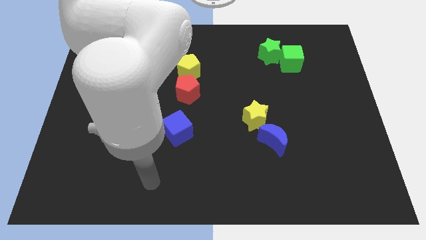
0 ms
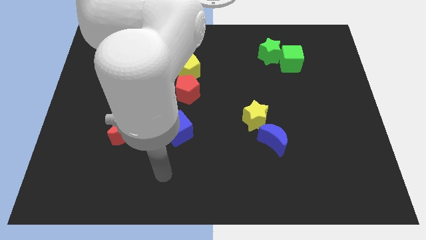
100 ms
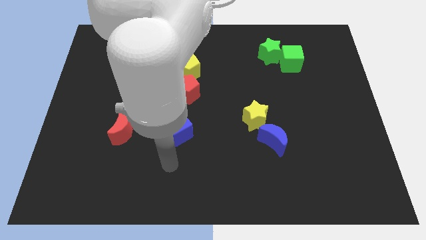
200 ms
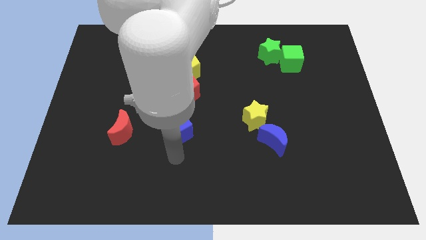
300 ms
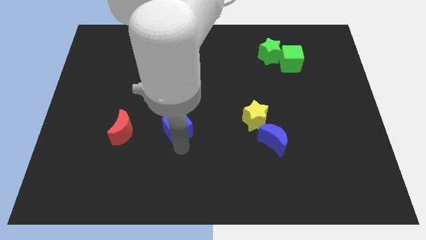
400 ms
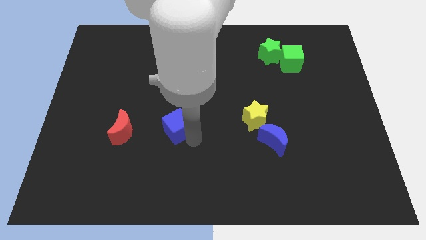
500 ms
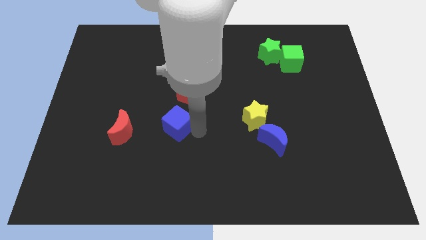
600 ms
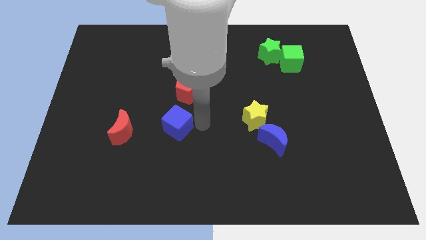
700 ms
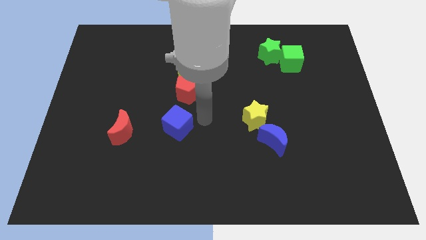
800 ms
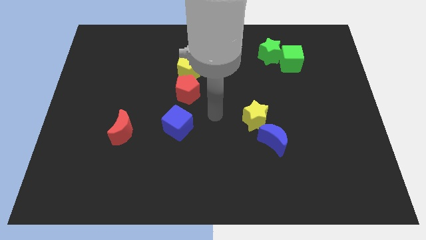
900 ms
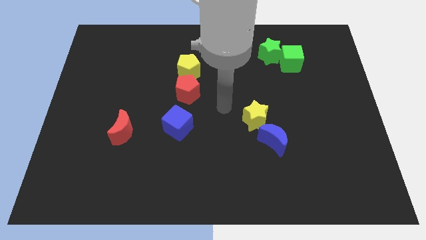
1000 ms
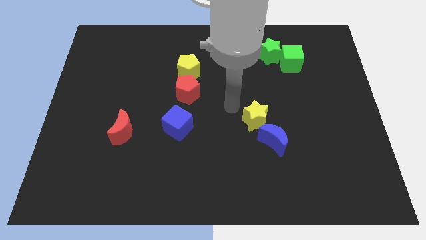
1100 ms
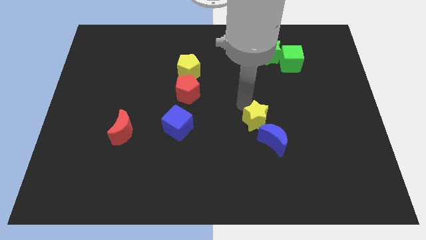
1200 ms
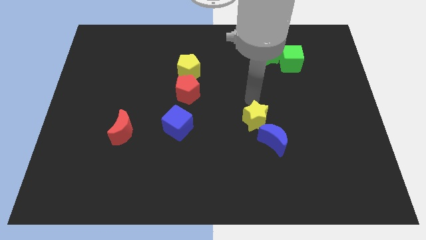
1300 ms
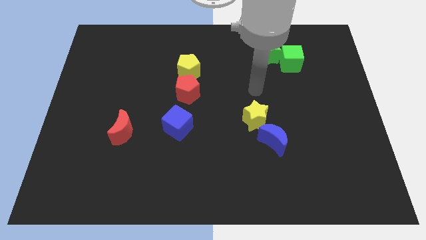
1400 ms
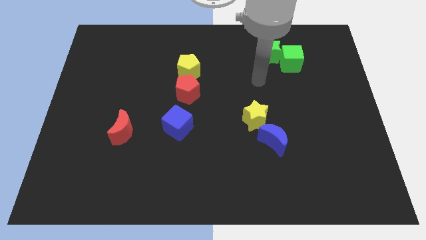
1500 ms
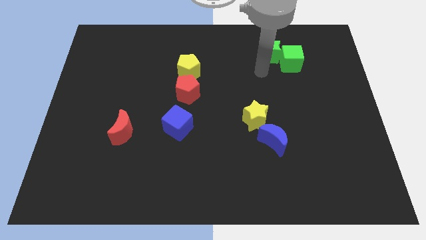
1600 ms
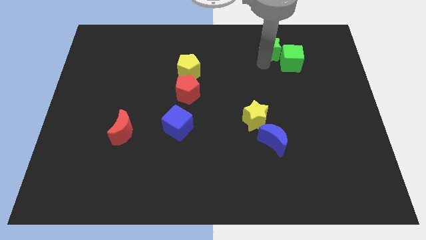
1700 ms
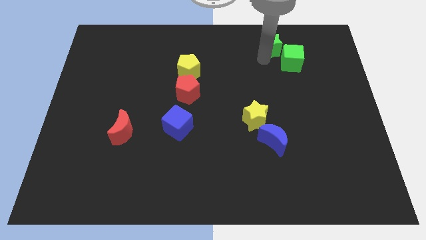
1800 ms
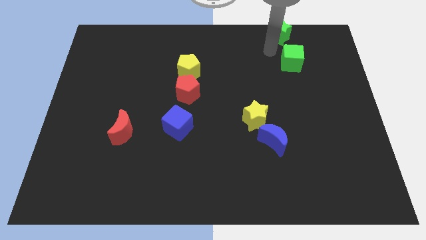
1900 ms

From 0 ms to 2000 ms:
separate the green cube from the green star

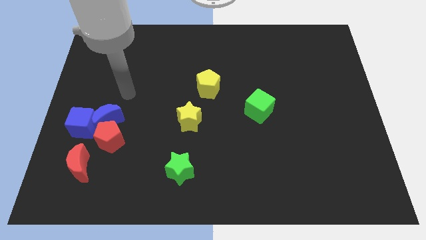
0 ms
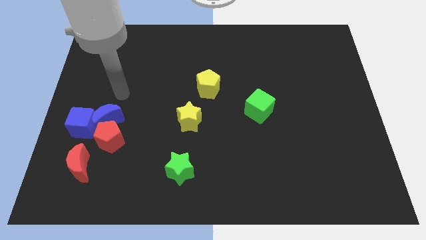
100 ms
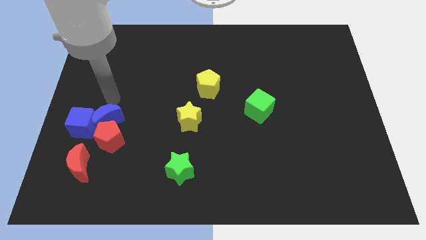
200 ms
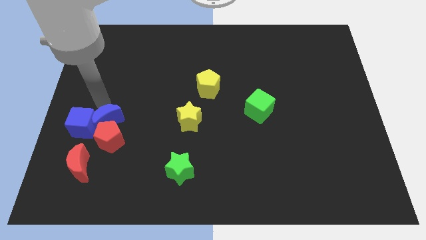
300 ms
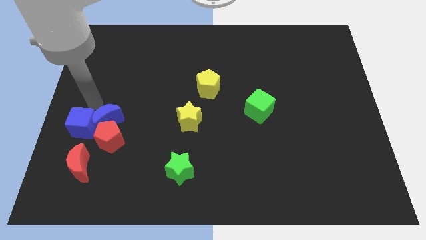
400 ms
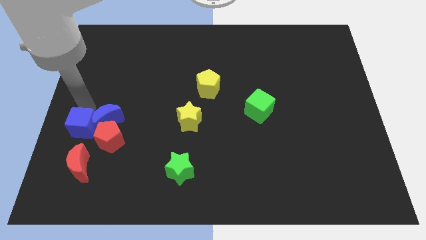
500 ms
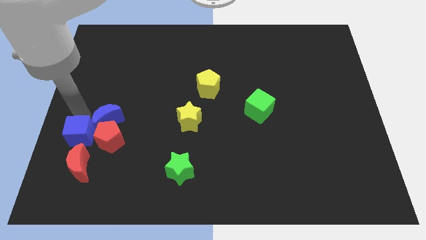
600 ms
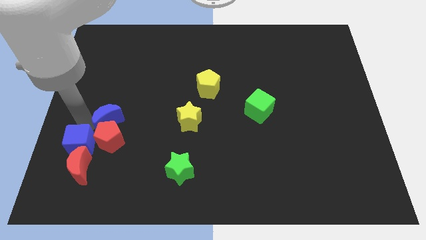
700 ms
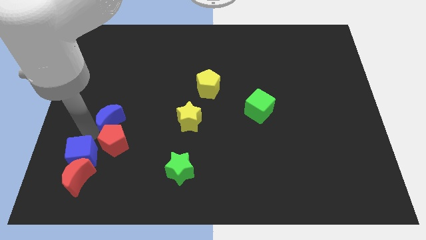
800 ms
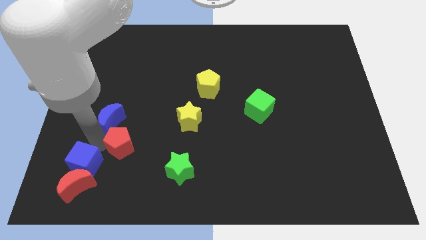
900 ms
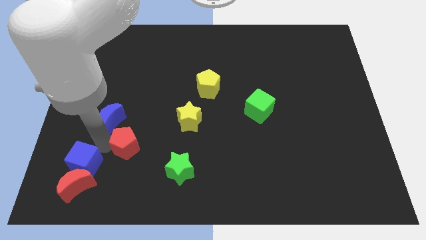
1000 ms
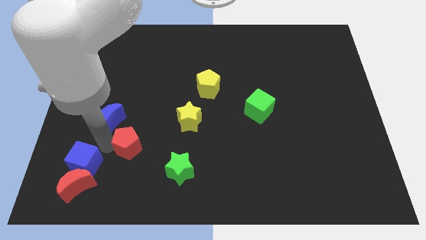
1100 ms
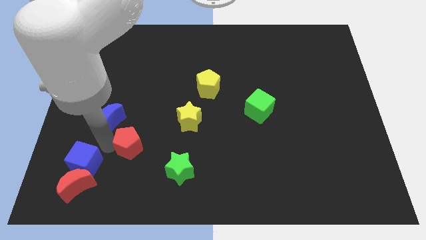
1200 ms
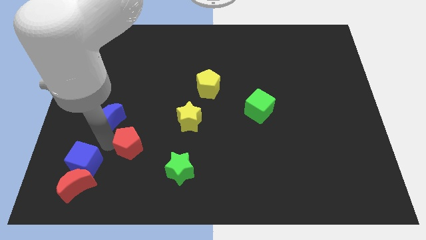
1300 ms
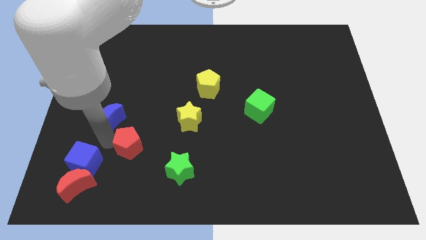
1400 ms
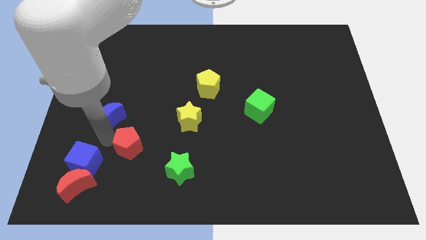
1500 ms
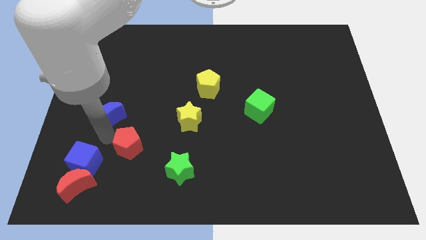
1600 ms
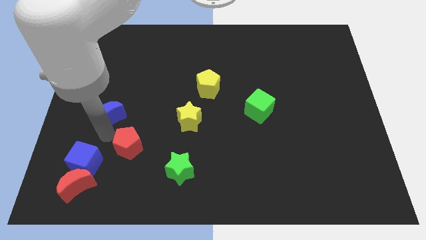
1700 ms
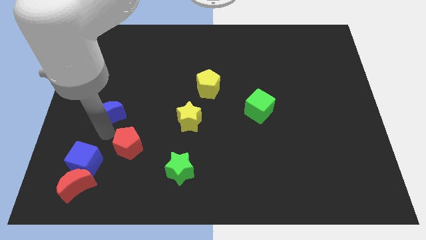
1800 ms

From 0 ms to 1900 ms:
separate the blue moon from the blue cube and red pentagon

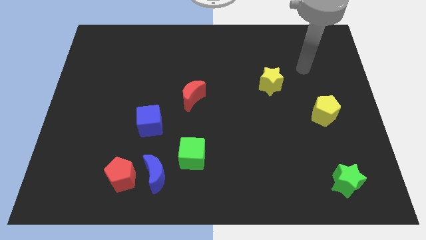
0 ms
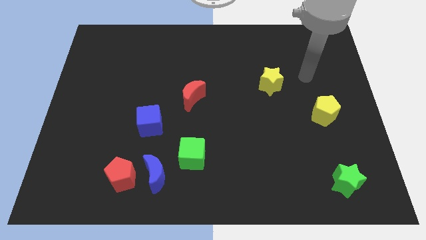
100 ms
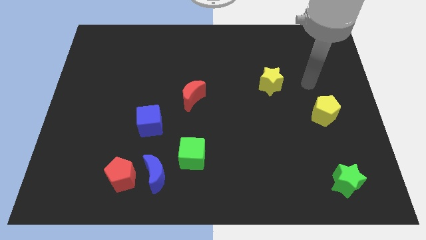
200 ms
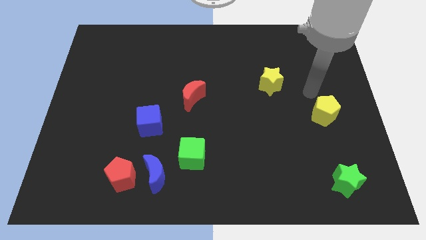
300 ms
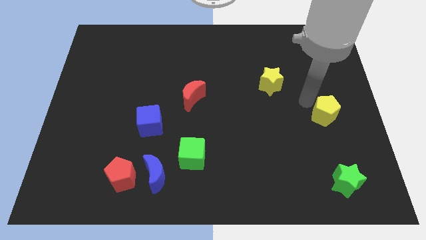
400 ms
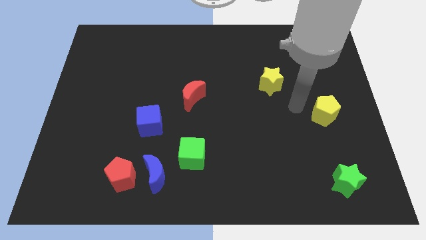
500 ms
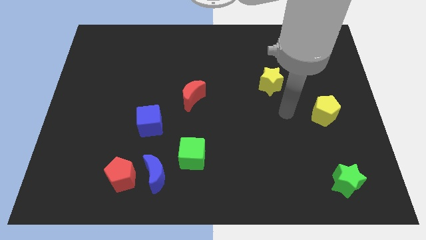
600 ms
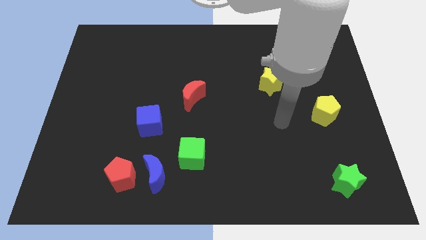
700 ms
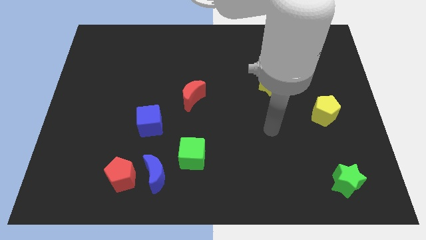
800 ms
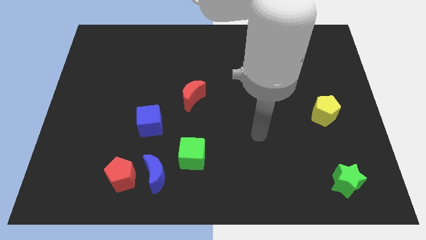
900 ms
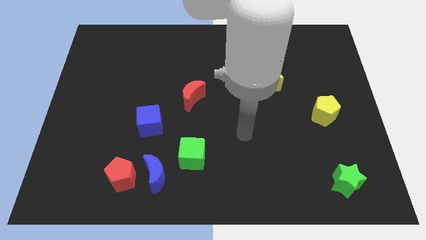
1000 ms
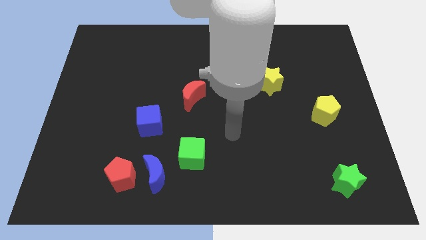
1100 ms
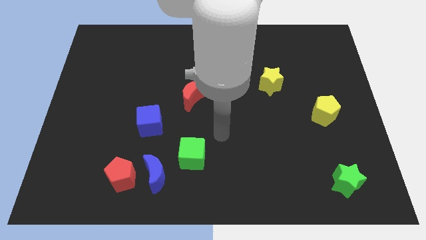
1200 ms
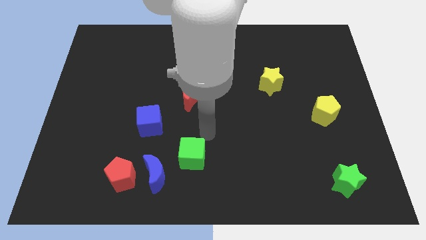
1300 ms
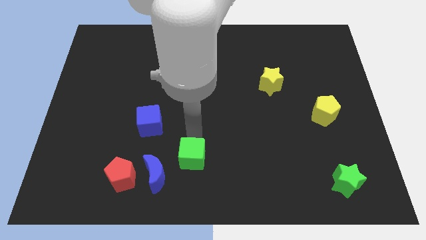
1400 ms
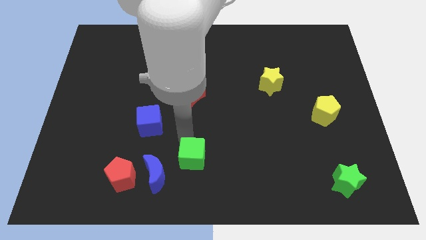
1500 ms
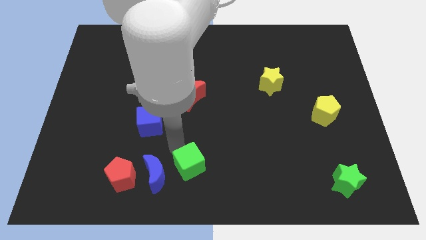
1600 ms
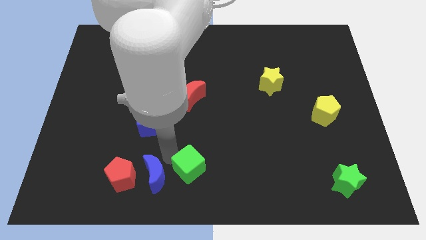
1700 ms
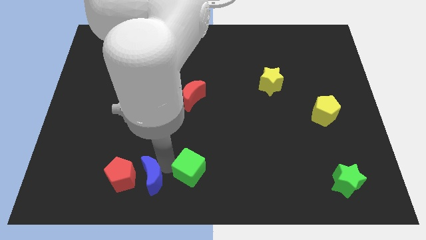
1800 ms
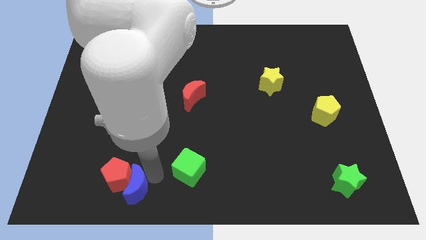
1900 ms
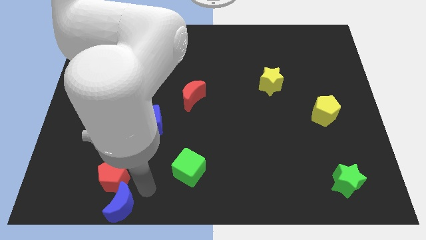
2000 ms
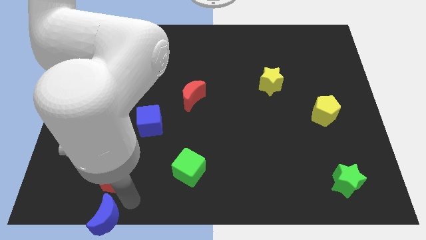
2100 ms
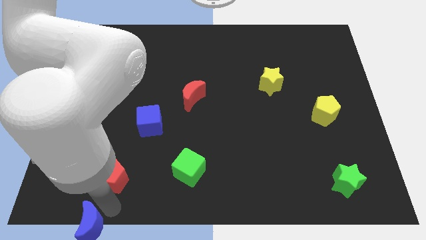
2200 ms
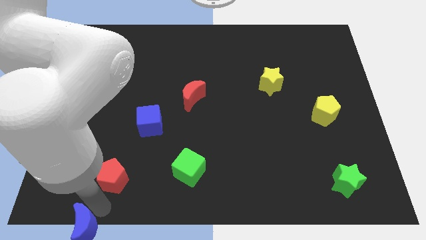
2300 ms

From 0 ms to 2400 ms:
move the red pentagon away from the blue moon

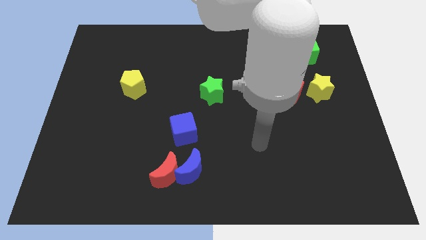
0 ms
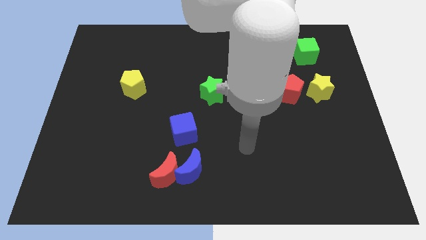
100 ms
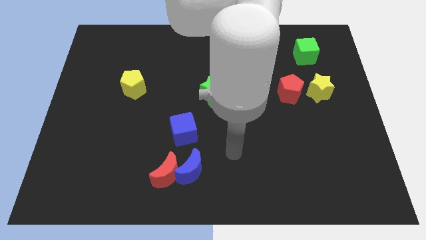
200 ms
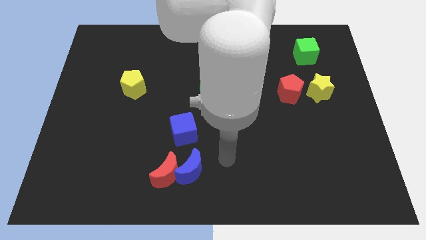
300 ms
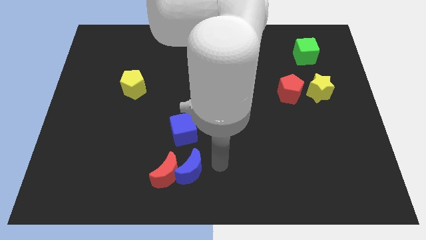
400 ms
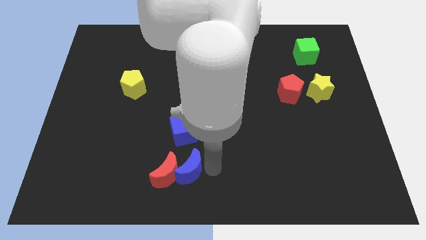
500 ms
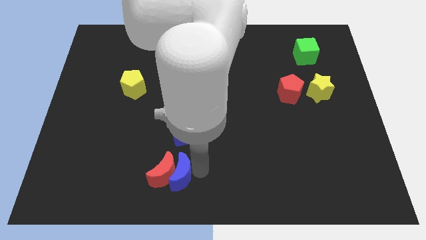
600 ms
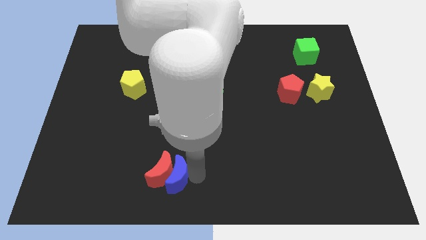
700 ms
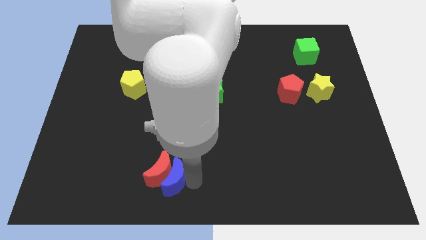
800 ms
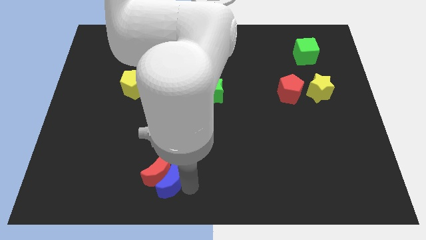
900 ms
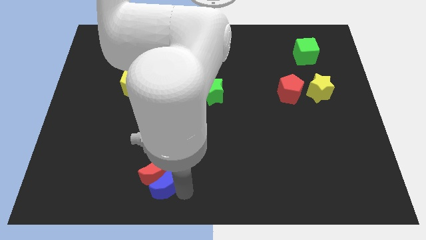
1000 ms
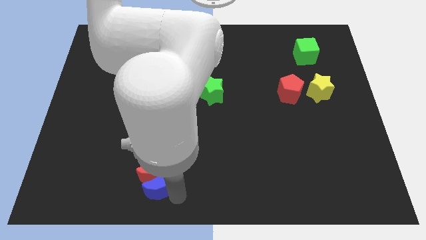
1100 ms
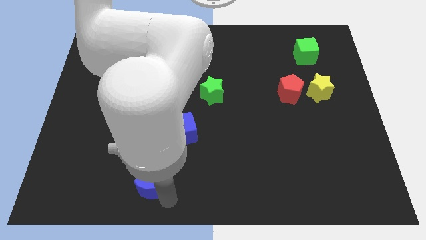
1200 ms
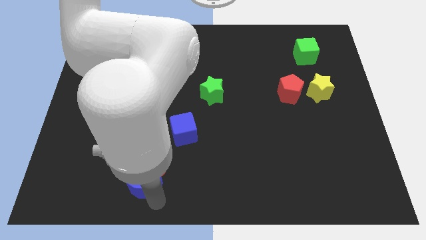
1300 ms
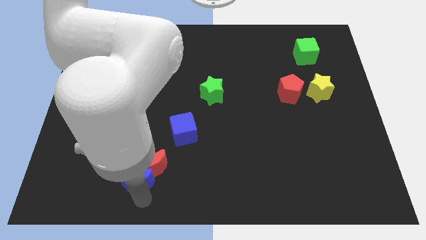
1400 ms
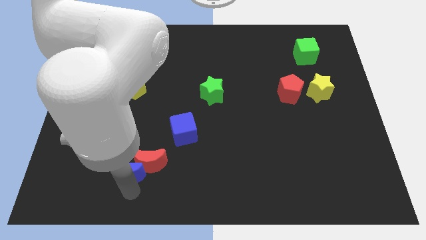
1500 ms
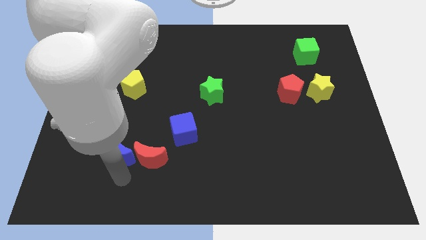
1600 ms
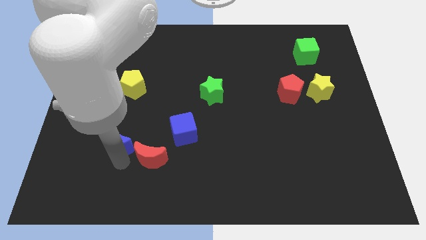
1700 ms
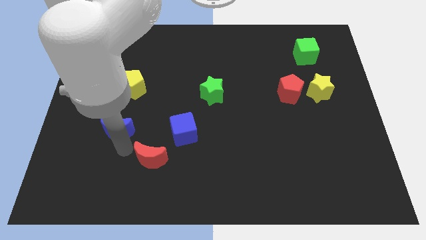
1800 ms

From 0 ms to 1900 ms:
pull the red moon apart from the blue moon

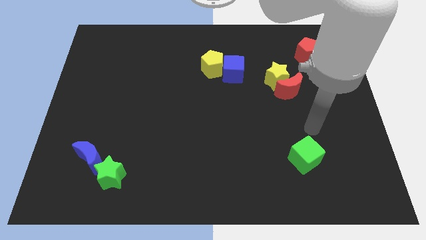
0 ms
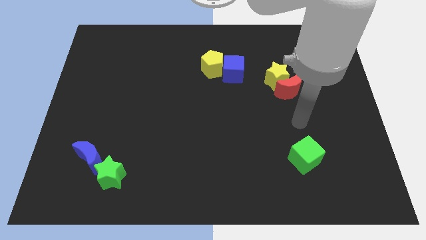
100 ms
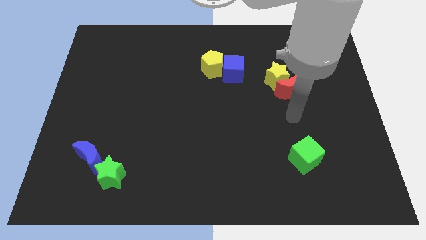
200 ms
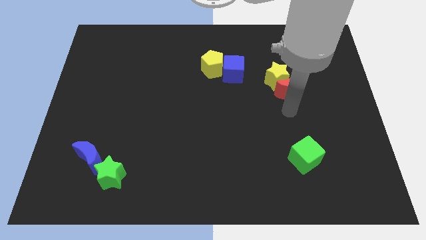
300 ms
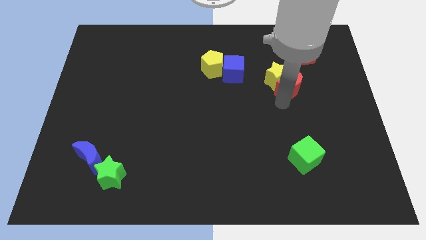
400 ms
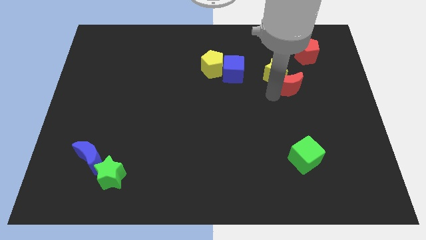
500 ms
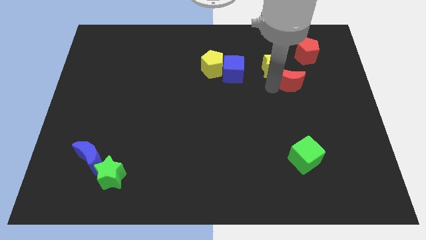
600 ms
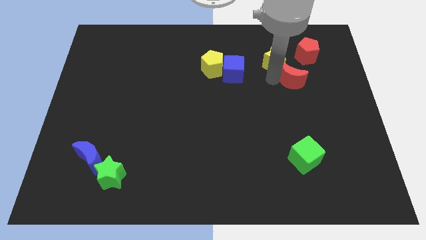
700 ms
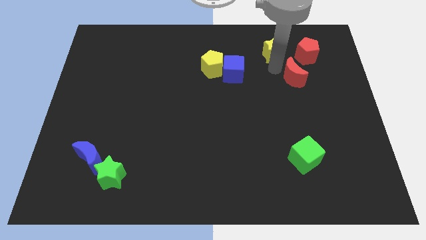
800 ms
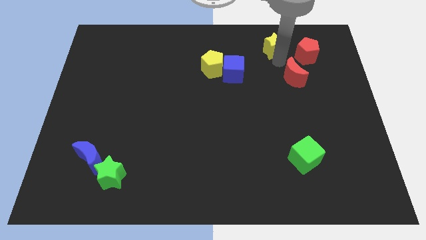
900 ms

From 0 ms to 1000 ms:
pull the red moon apart from the yellow star

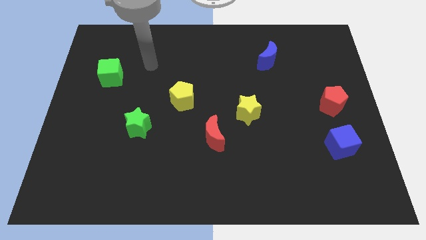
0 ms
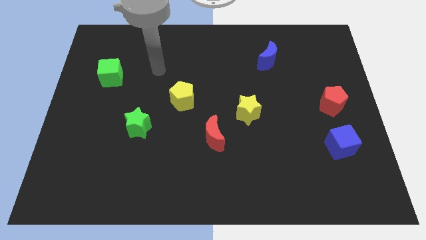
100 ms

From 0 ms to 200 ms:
separate the red moon from the yellow star
